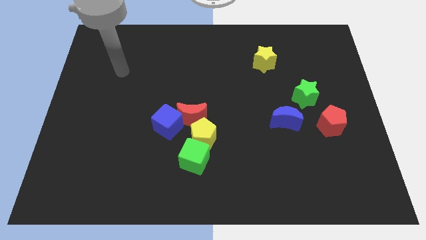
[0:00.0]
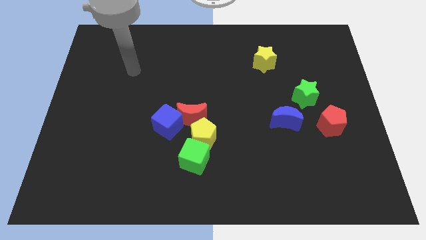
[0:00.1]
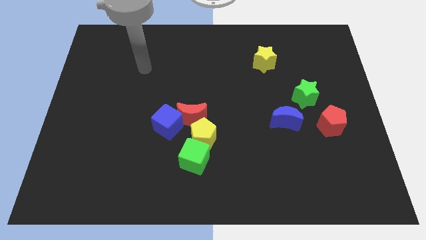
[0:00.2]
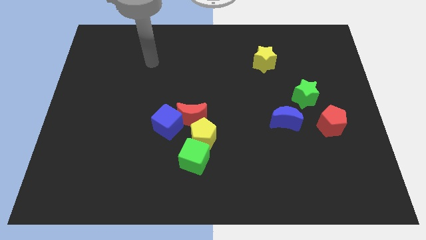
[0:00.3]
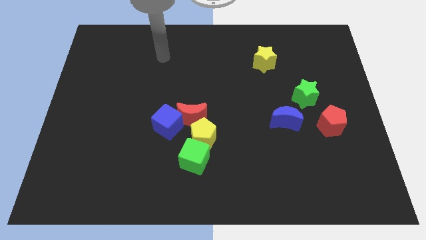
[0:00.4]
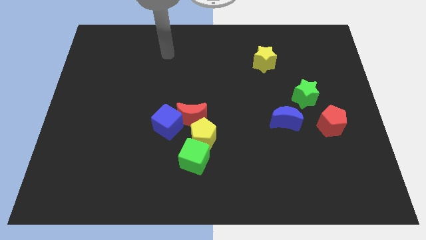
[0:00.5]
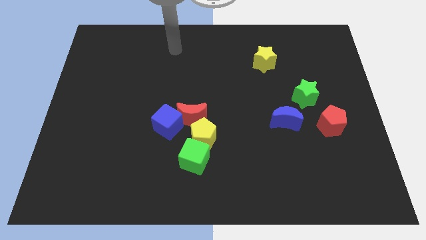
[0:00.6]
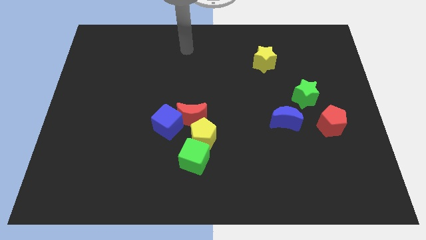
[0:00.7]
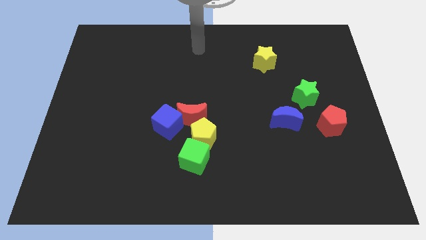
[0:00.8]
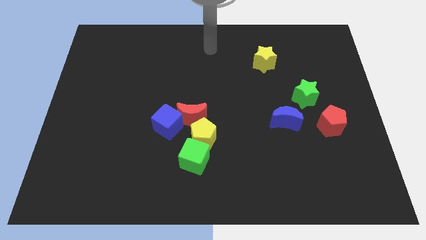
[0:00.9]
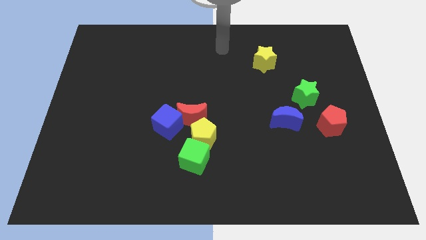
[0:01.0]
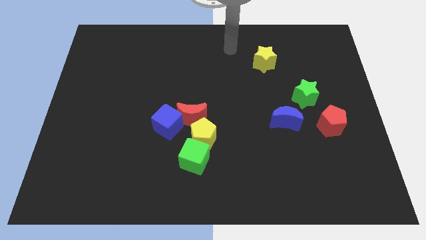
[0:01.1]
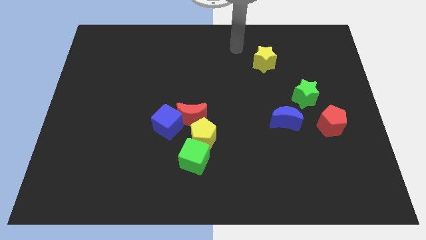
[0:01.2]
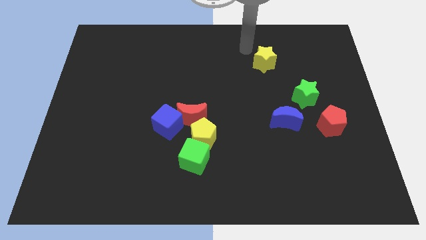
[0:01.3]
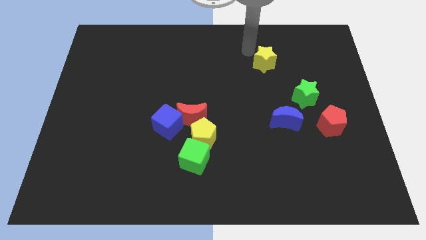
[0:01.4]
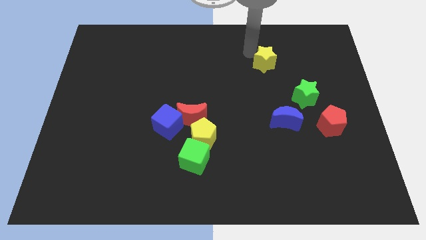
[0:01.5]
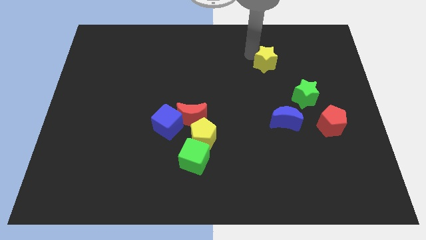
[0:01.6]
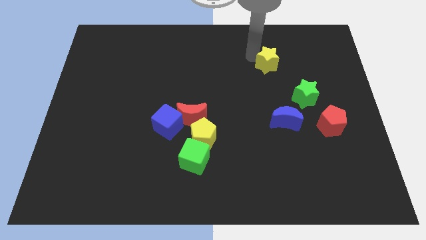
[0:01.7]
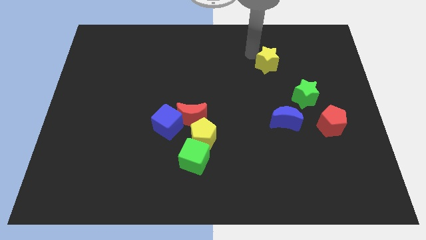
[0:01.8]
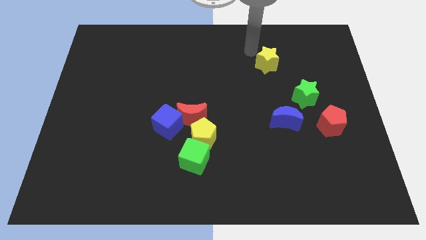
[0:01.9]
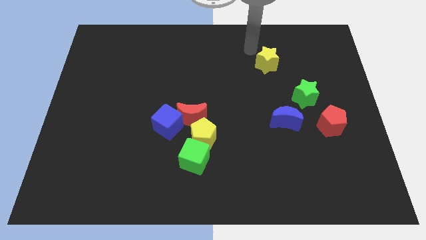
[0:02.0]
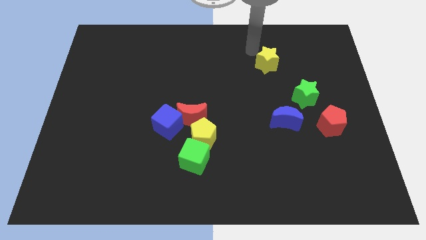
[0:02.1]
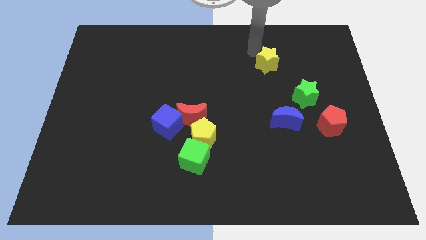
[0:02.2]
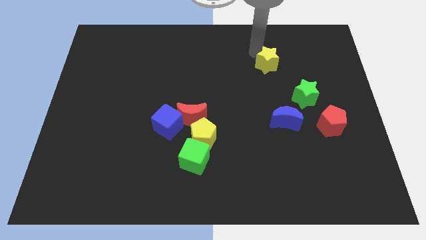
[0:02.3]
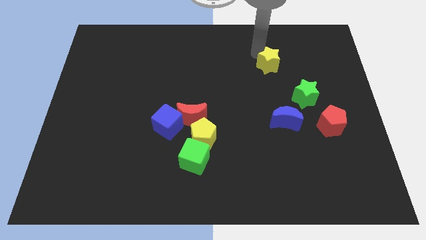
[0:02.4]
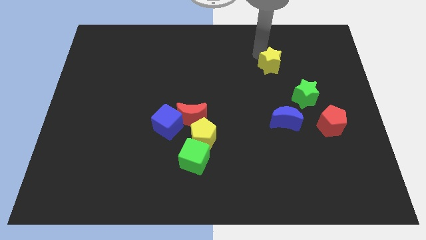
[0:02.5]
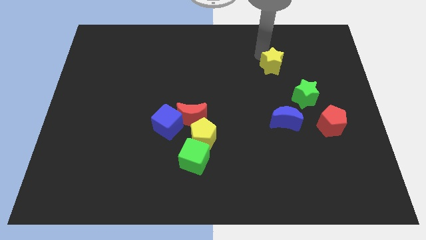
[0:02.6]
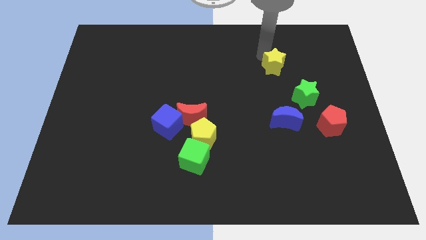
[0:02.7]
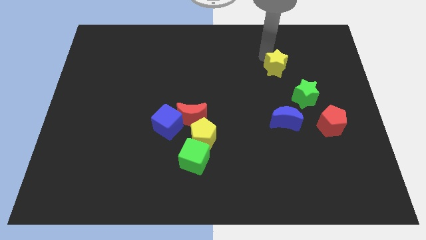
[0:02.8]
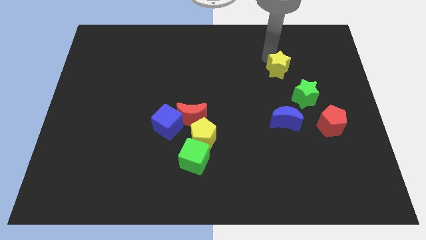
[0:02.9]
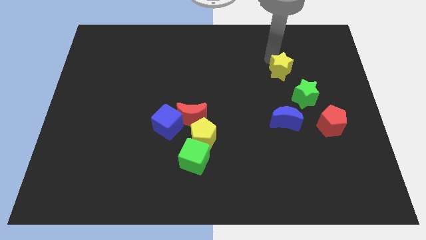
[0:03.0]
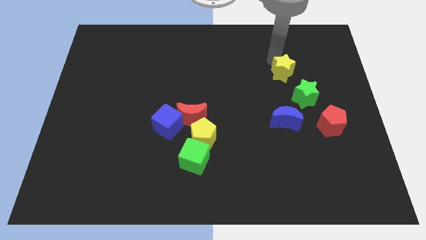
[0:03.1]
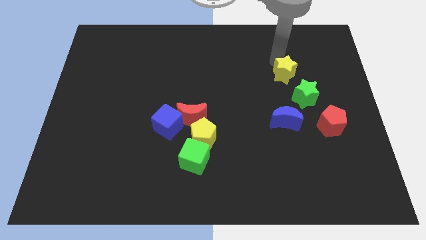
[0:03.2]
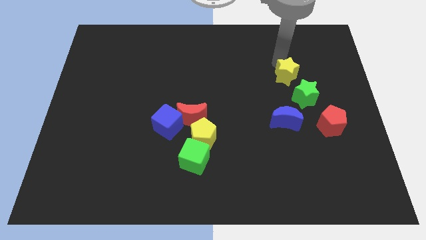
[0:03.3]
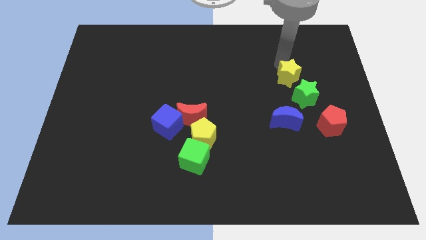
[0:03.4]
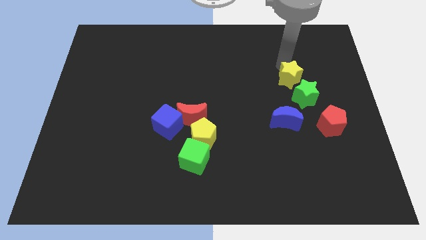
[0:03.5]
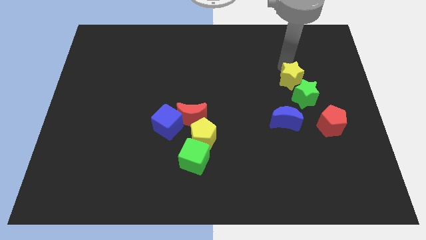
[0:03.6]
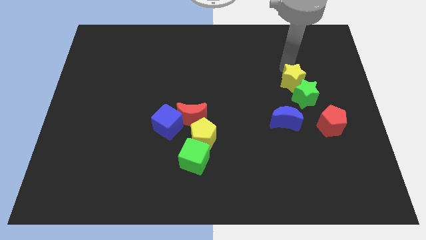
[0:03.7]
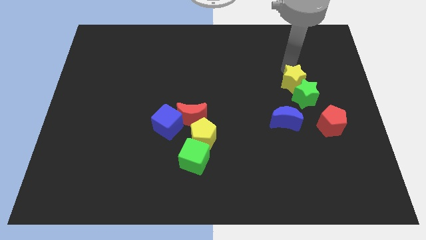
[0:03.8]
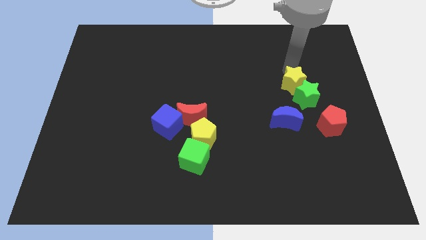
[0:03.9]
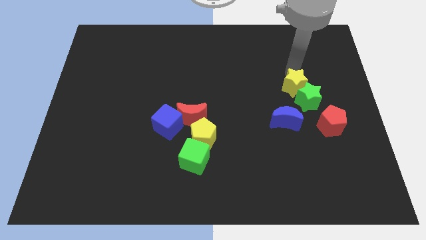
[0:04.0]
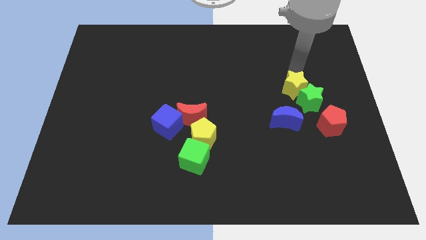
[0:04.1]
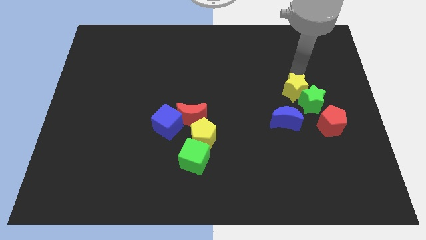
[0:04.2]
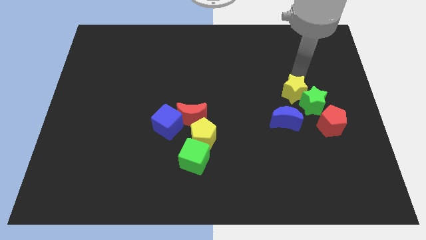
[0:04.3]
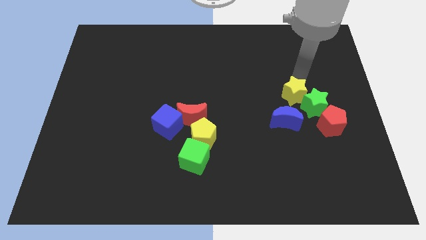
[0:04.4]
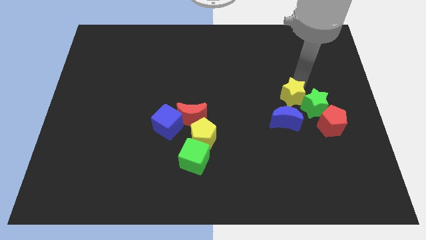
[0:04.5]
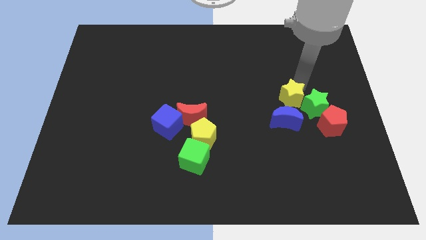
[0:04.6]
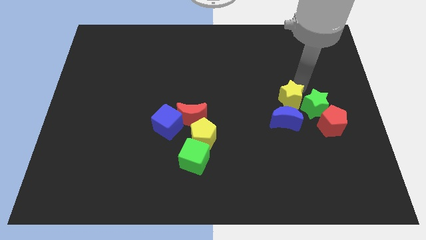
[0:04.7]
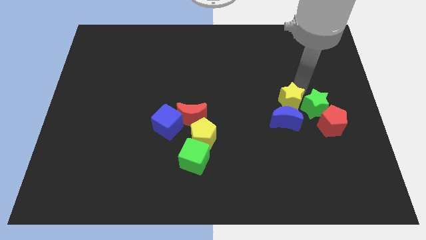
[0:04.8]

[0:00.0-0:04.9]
move the yellow star close to the blue moon

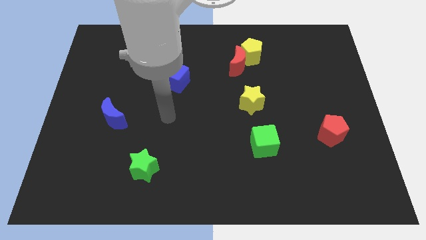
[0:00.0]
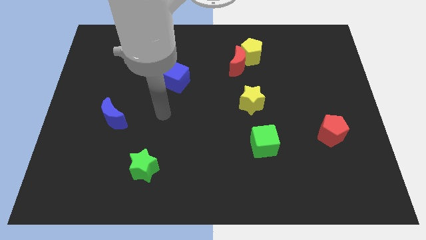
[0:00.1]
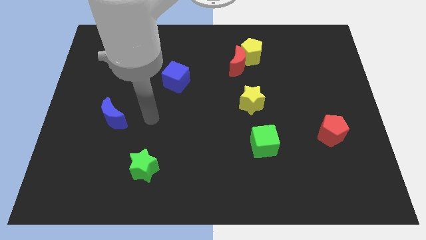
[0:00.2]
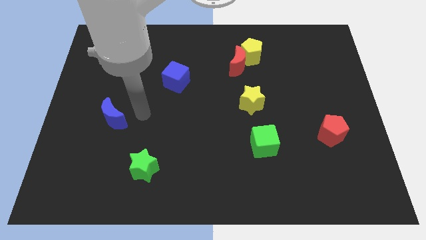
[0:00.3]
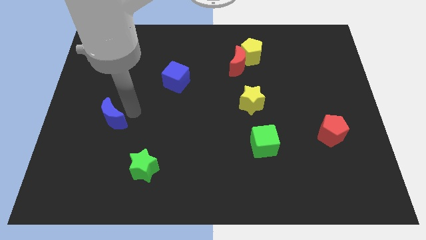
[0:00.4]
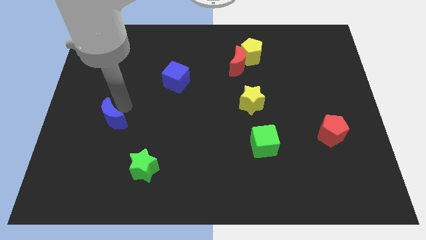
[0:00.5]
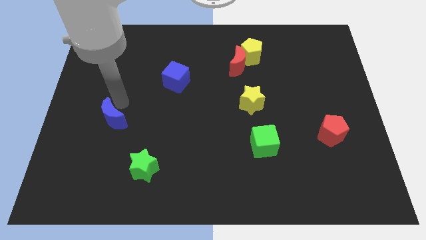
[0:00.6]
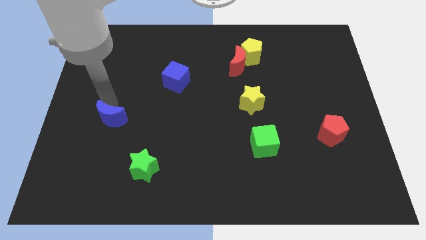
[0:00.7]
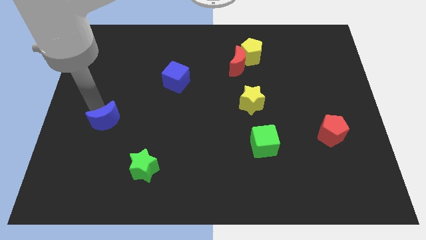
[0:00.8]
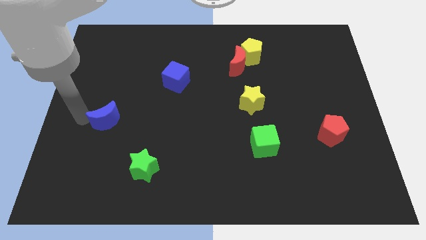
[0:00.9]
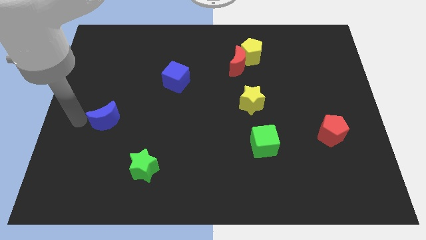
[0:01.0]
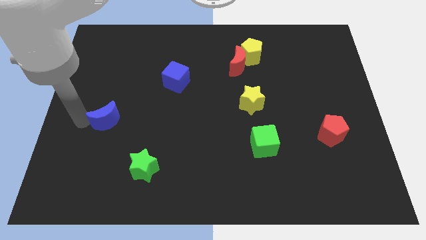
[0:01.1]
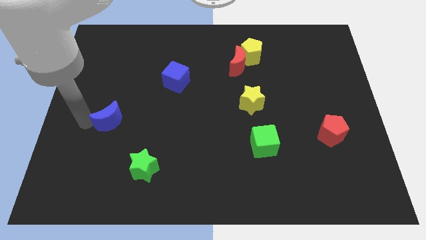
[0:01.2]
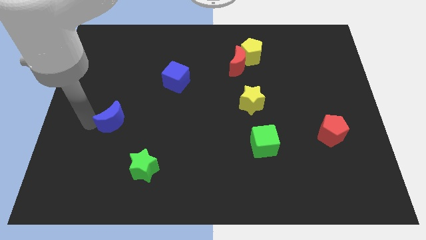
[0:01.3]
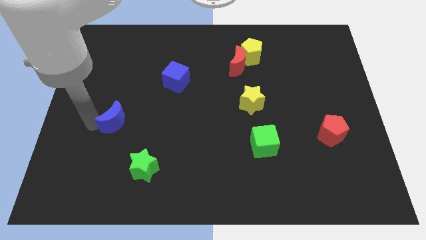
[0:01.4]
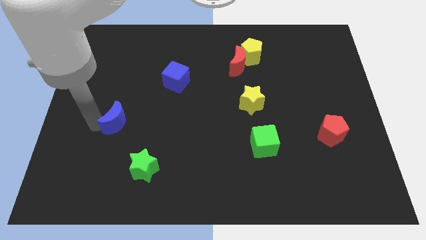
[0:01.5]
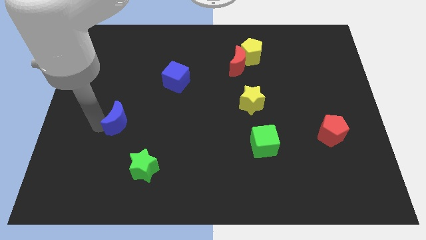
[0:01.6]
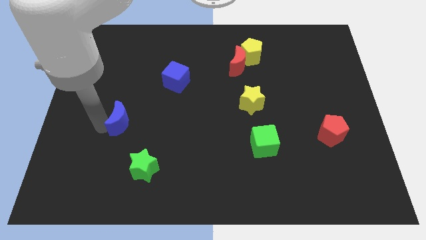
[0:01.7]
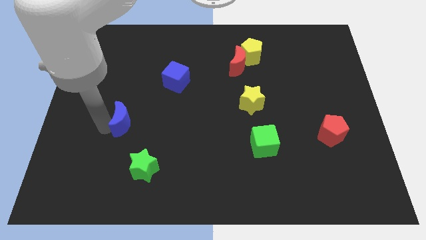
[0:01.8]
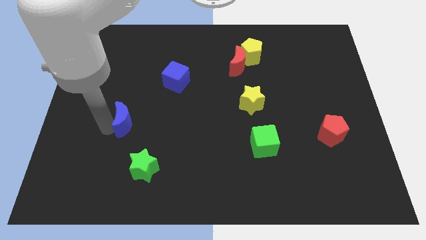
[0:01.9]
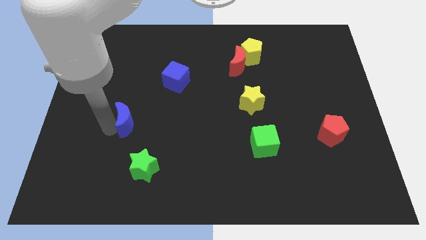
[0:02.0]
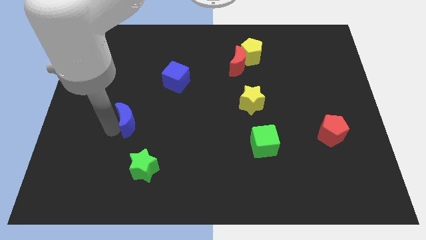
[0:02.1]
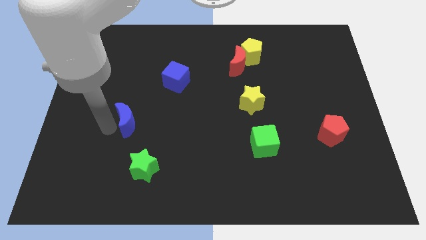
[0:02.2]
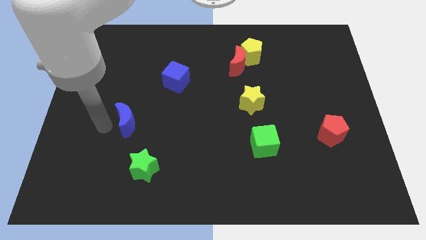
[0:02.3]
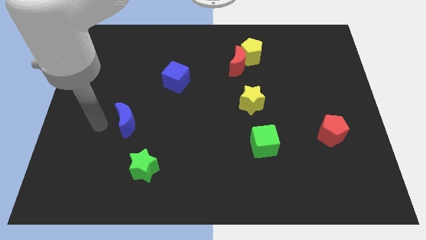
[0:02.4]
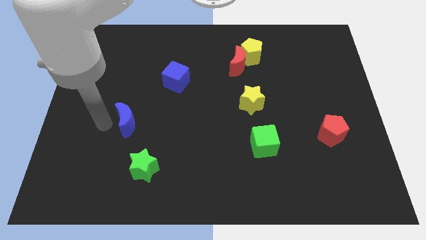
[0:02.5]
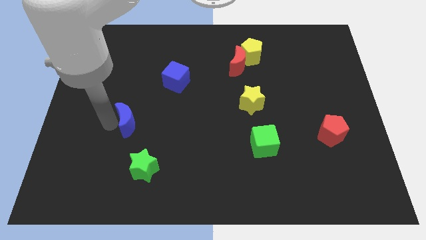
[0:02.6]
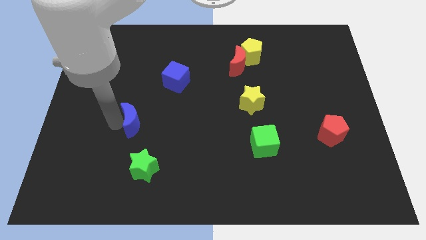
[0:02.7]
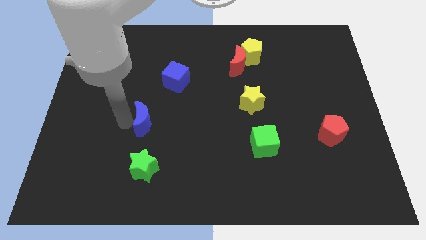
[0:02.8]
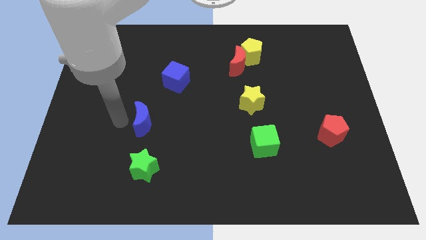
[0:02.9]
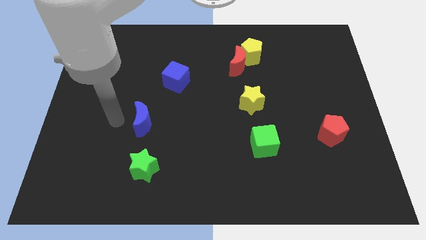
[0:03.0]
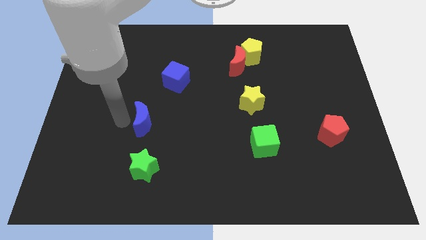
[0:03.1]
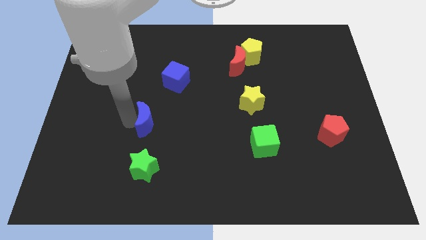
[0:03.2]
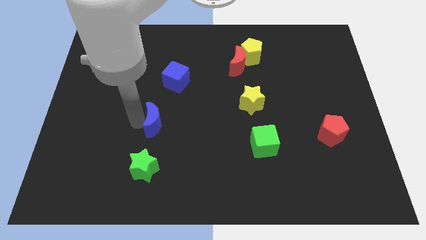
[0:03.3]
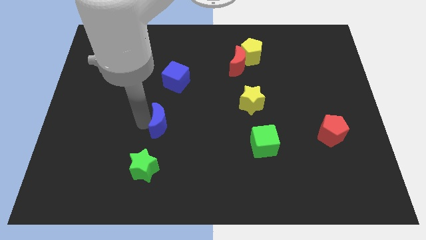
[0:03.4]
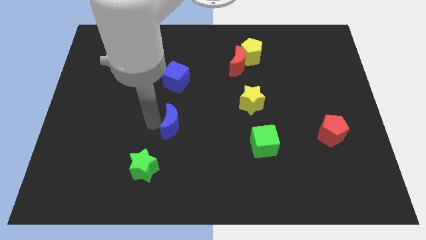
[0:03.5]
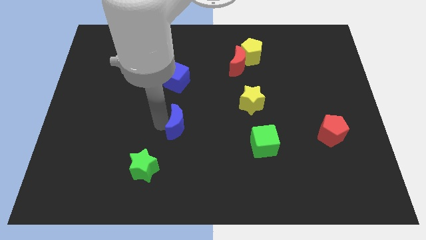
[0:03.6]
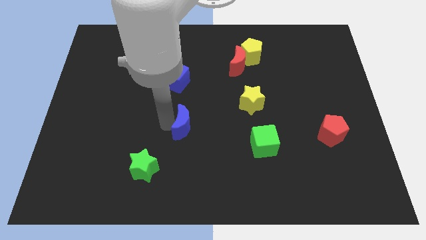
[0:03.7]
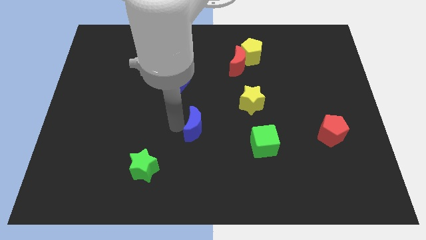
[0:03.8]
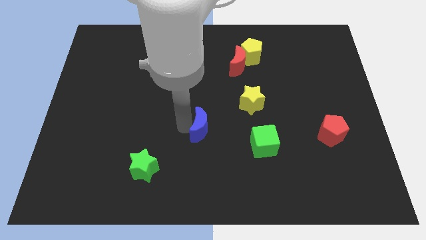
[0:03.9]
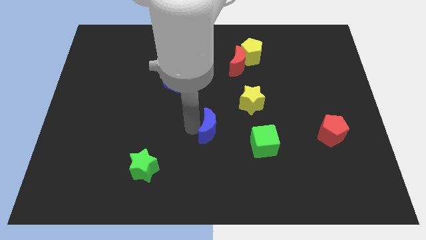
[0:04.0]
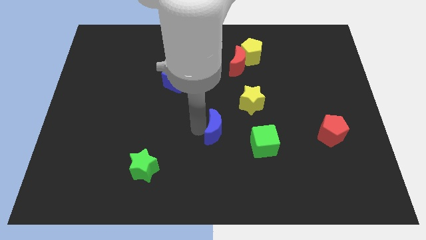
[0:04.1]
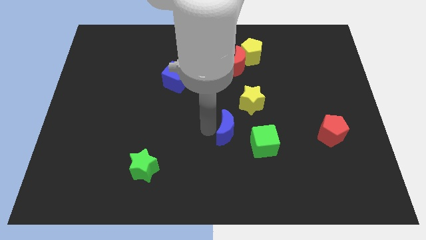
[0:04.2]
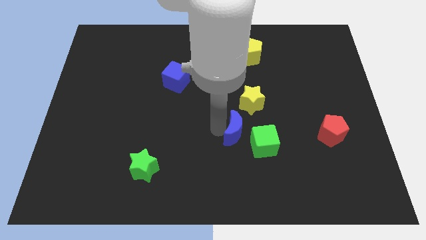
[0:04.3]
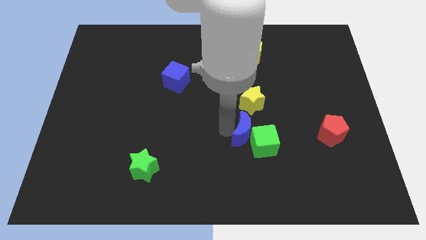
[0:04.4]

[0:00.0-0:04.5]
push the blue moon to the green cube
